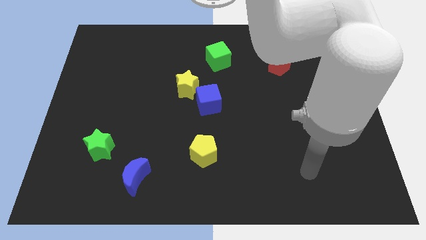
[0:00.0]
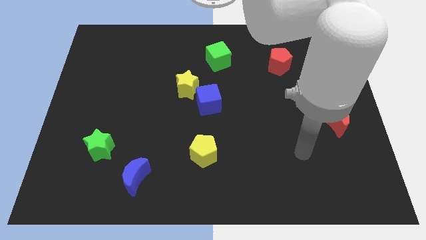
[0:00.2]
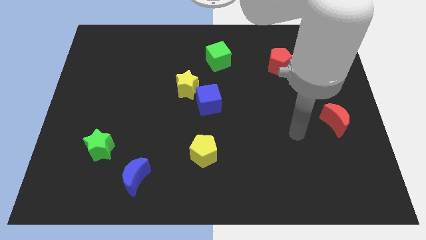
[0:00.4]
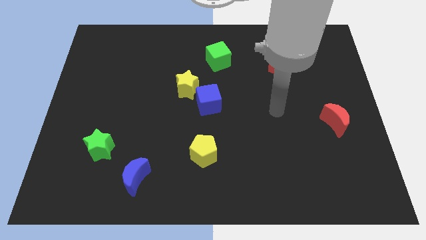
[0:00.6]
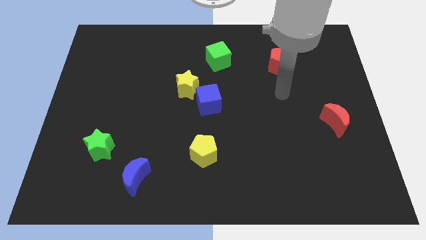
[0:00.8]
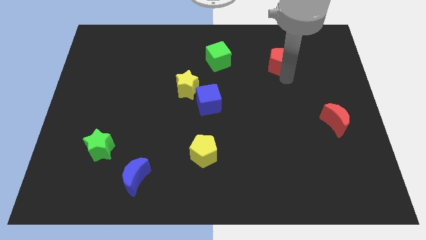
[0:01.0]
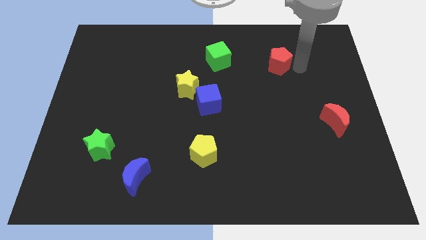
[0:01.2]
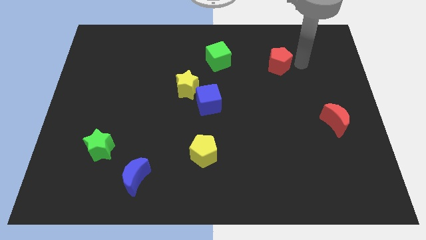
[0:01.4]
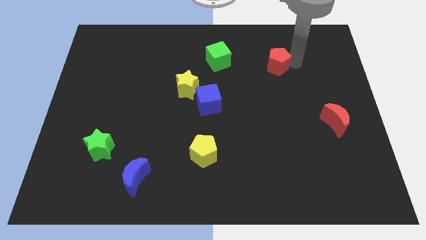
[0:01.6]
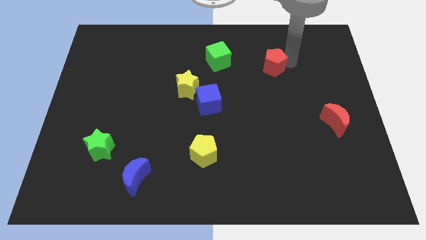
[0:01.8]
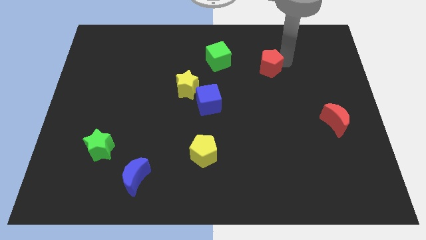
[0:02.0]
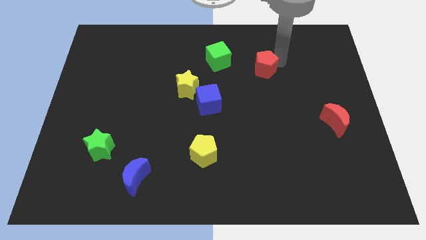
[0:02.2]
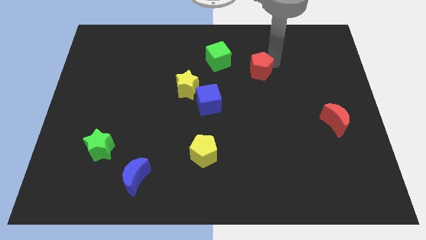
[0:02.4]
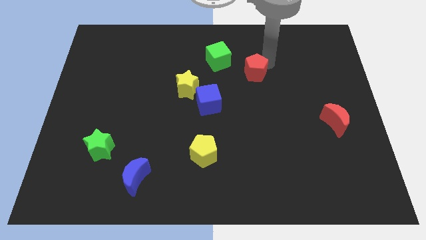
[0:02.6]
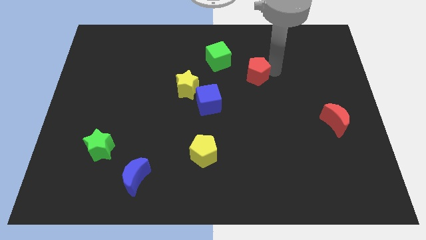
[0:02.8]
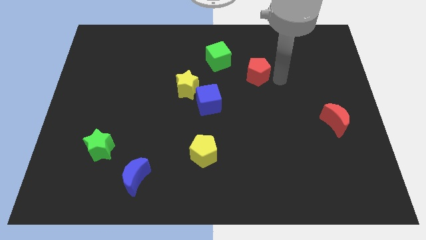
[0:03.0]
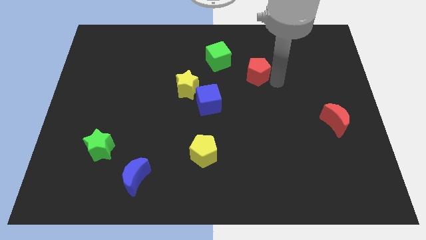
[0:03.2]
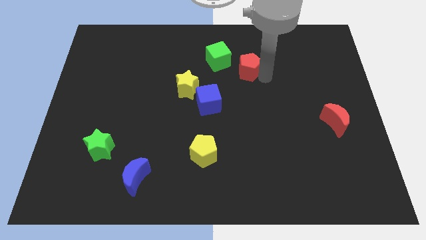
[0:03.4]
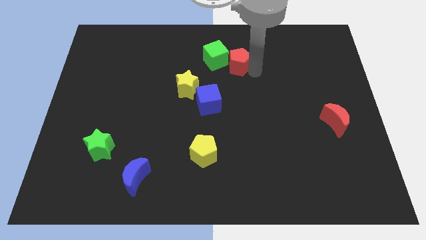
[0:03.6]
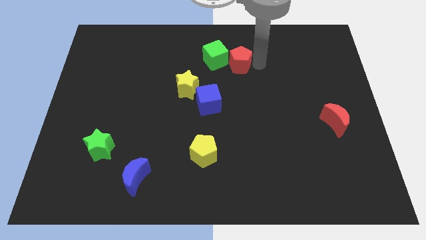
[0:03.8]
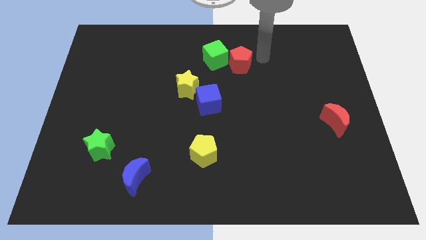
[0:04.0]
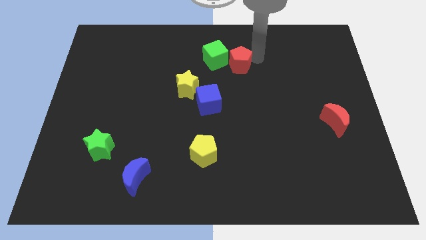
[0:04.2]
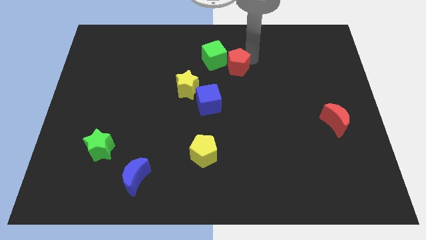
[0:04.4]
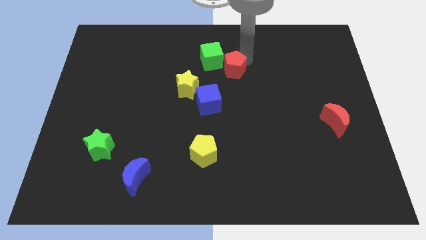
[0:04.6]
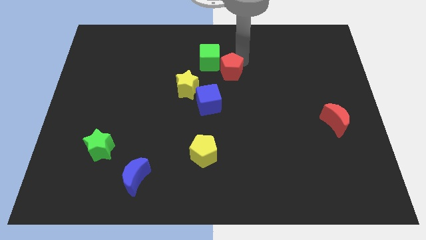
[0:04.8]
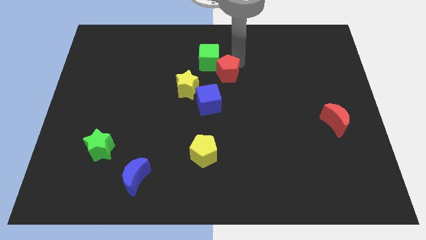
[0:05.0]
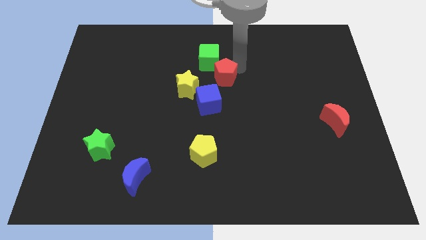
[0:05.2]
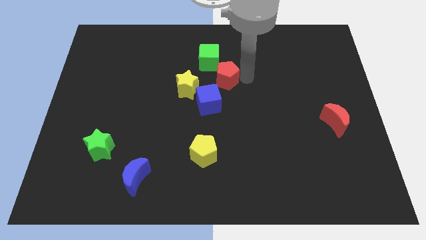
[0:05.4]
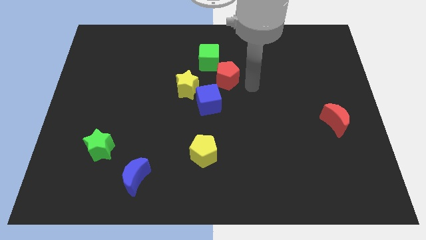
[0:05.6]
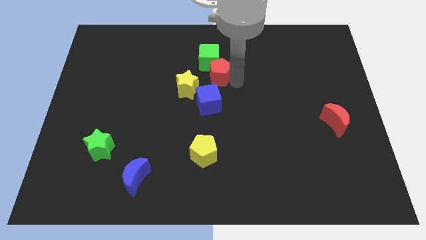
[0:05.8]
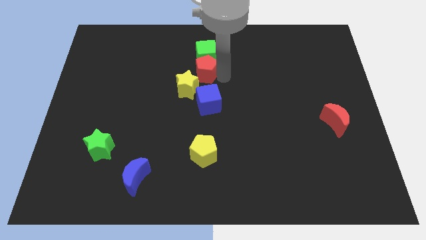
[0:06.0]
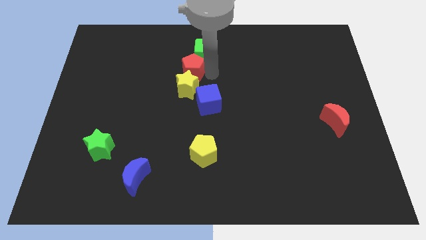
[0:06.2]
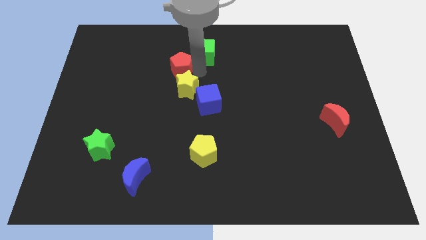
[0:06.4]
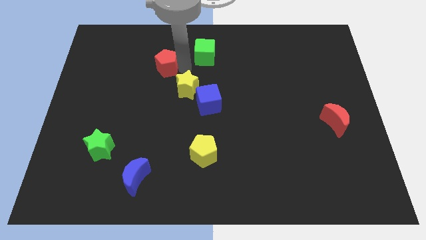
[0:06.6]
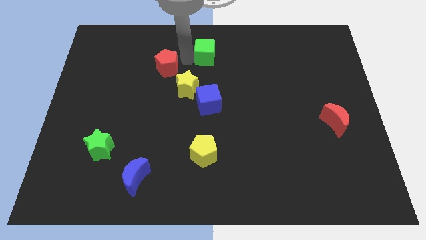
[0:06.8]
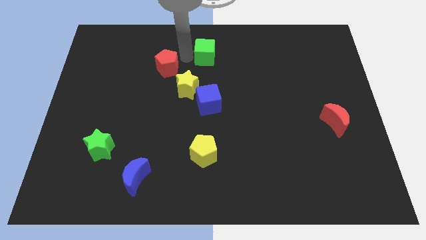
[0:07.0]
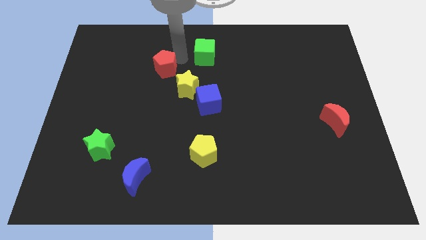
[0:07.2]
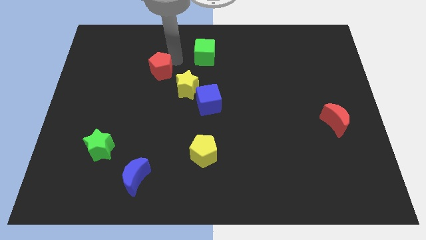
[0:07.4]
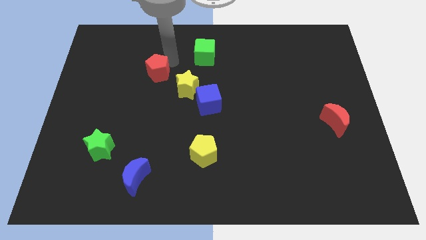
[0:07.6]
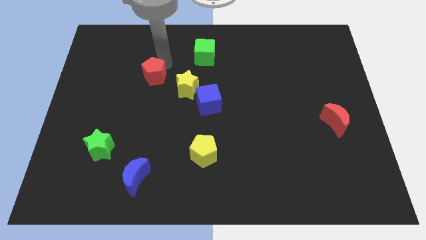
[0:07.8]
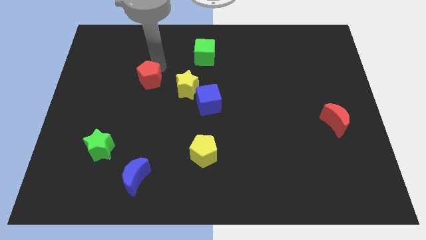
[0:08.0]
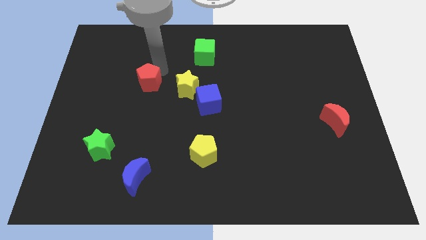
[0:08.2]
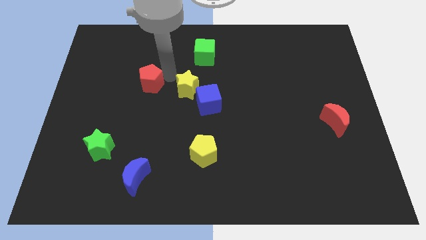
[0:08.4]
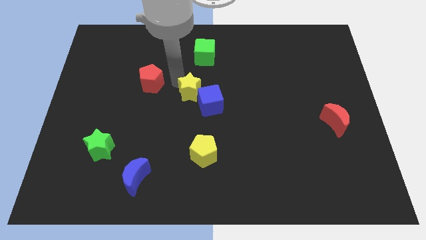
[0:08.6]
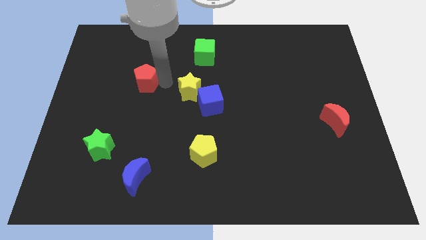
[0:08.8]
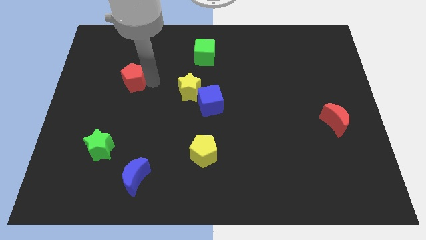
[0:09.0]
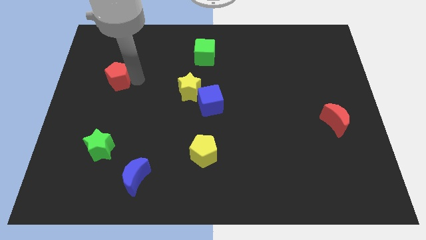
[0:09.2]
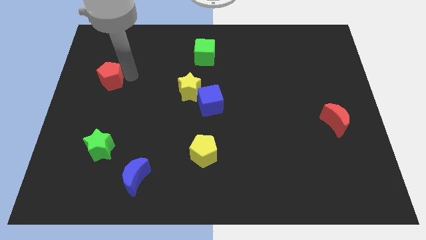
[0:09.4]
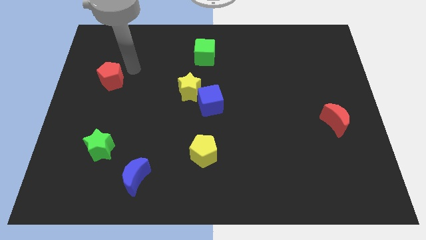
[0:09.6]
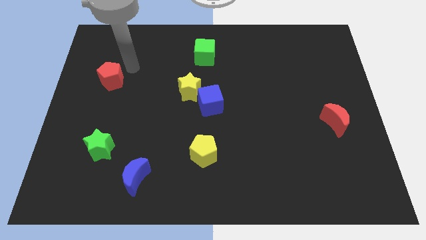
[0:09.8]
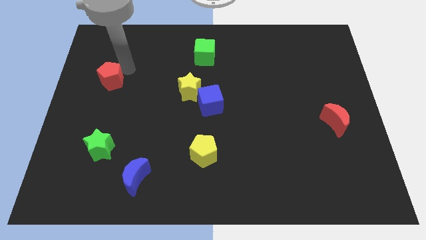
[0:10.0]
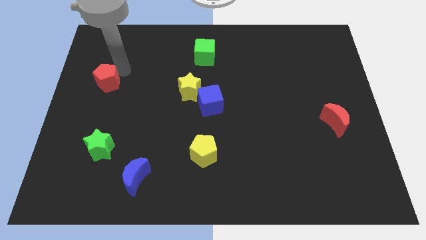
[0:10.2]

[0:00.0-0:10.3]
move the red pentagon to the left side of the board

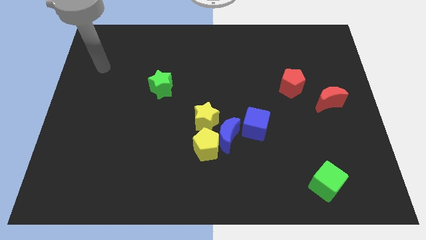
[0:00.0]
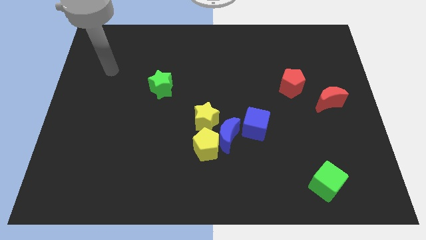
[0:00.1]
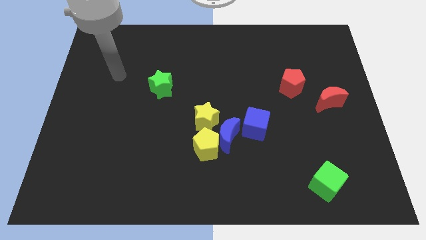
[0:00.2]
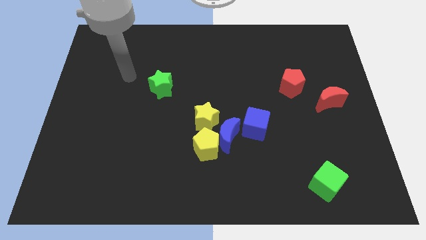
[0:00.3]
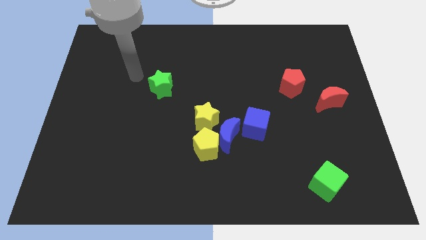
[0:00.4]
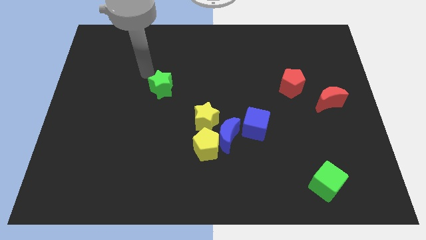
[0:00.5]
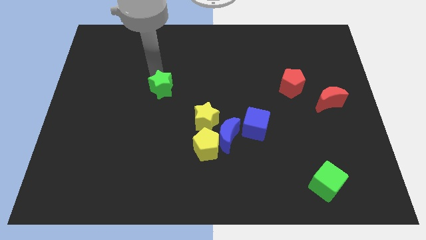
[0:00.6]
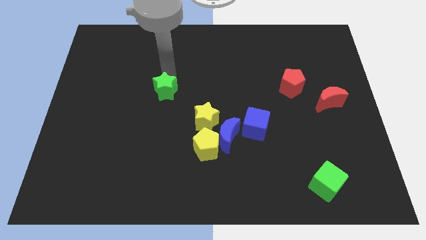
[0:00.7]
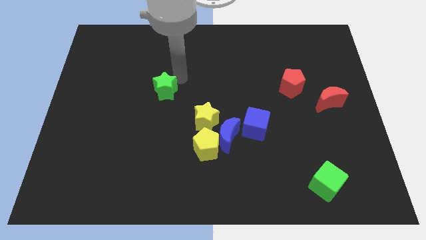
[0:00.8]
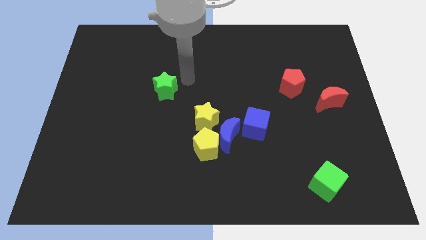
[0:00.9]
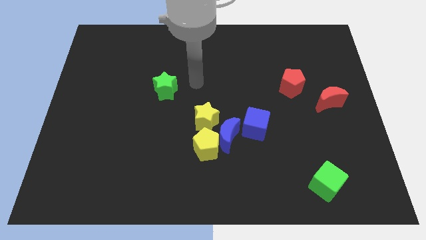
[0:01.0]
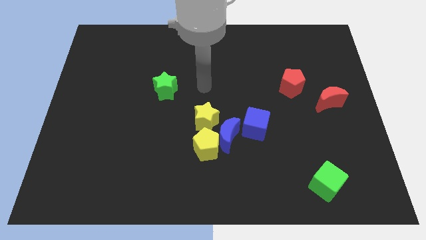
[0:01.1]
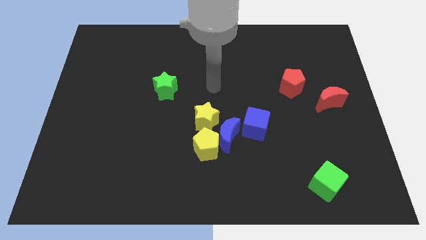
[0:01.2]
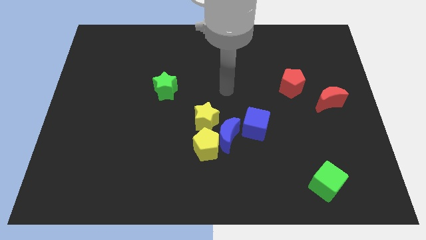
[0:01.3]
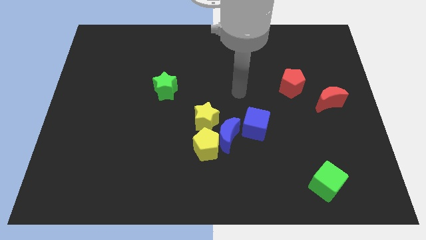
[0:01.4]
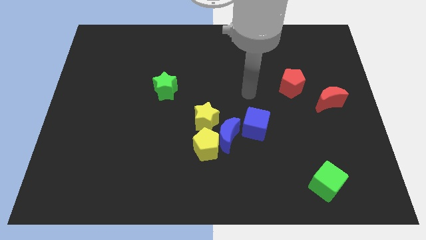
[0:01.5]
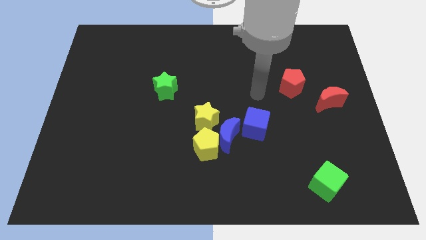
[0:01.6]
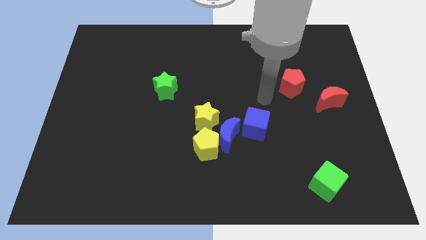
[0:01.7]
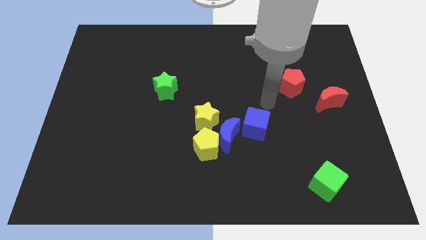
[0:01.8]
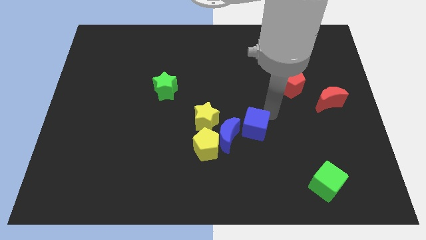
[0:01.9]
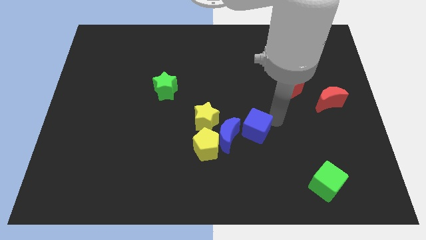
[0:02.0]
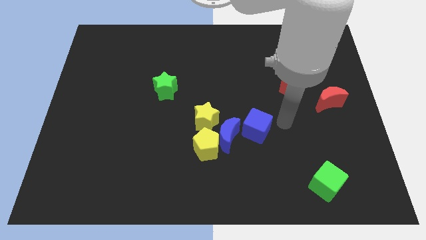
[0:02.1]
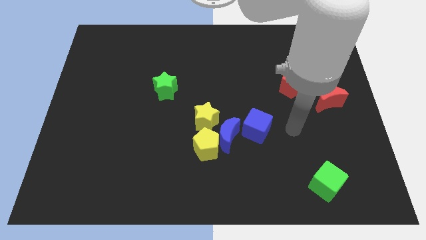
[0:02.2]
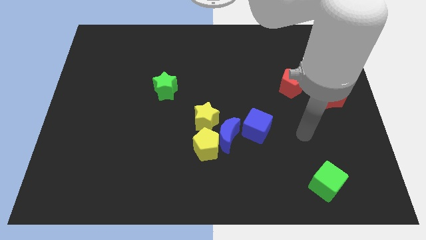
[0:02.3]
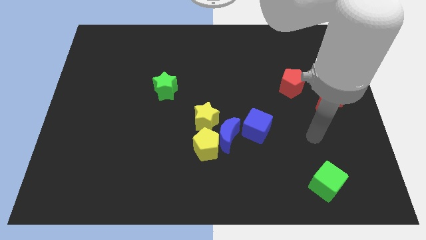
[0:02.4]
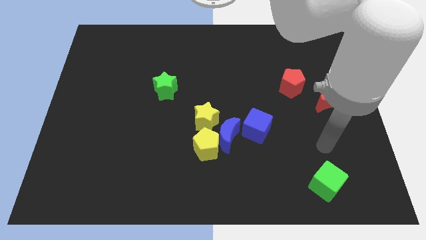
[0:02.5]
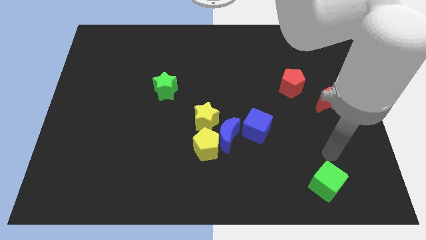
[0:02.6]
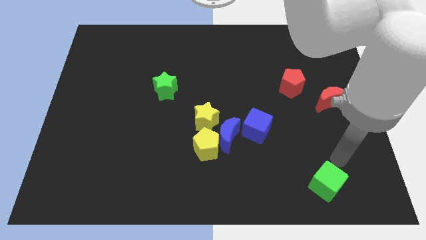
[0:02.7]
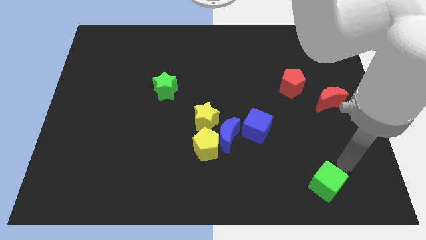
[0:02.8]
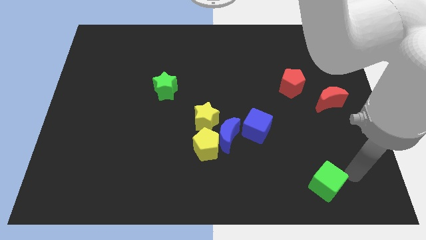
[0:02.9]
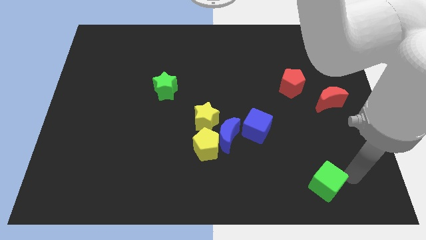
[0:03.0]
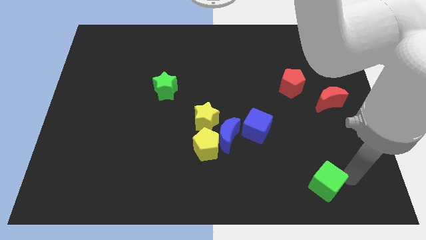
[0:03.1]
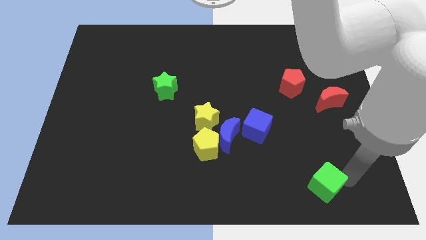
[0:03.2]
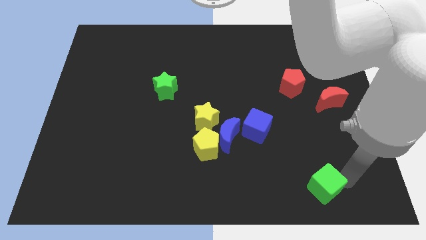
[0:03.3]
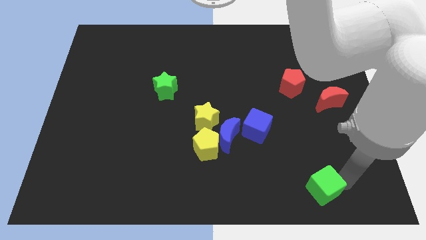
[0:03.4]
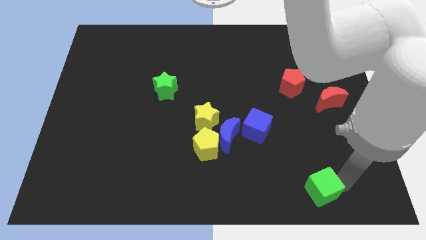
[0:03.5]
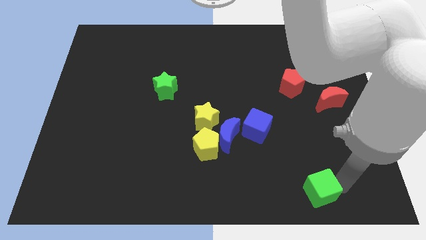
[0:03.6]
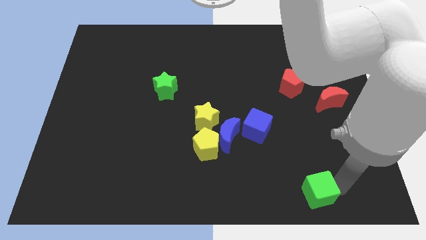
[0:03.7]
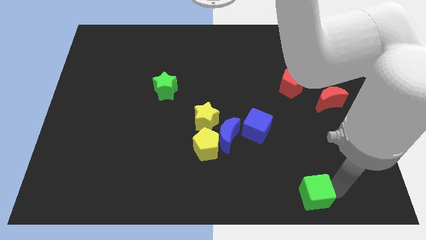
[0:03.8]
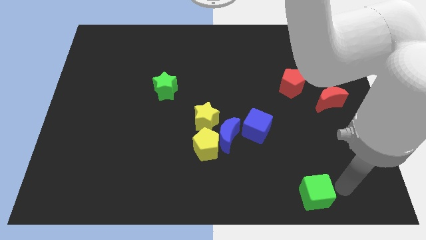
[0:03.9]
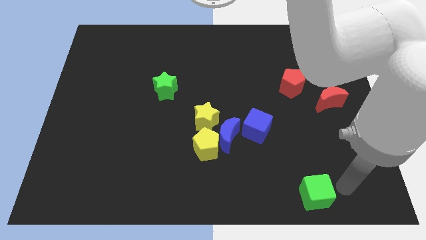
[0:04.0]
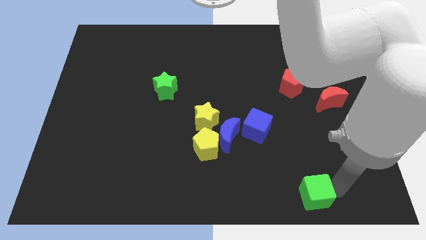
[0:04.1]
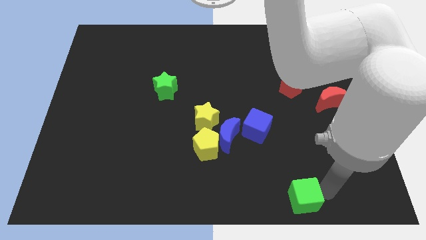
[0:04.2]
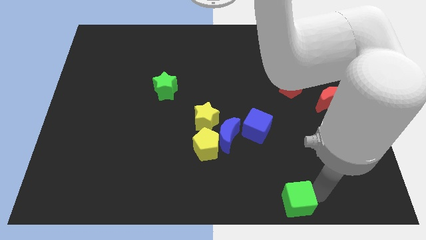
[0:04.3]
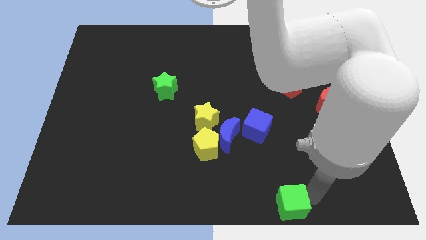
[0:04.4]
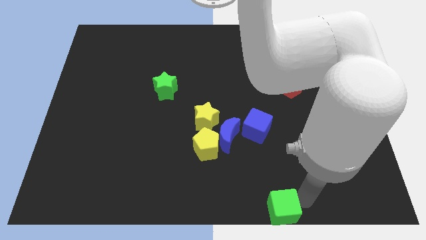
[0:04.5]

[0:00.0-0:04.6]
slide the green cube to the bottom
